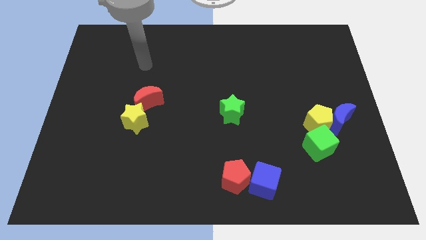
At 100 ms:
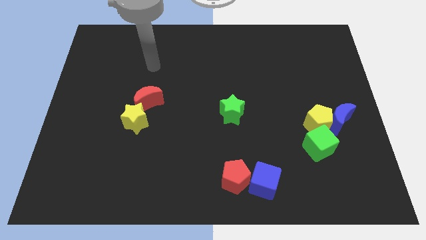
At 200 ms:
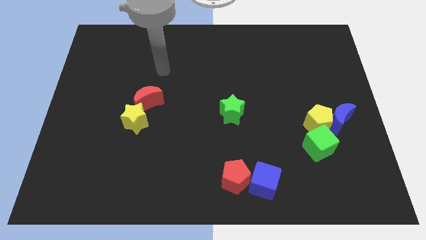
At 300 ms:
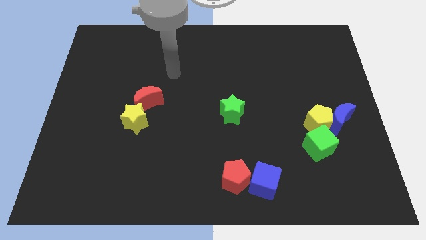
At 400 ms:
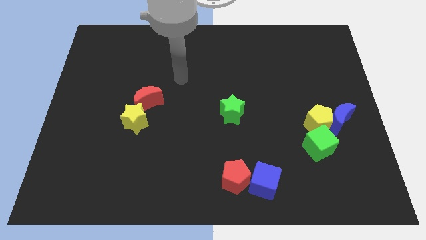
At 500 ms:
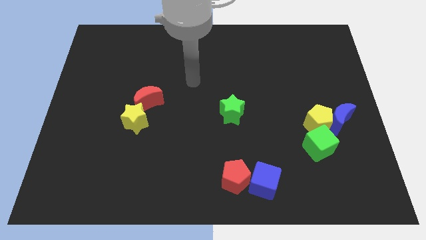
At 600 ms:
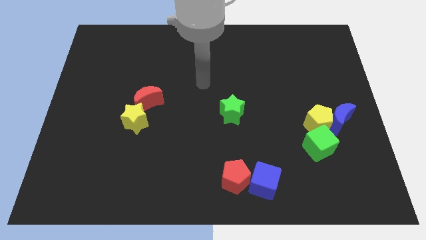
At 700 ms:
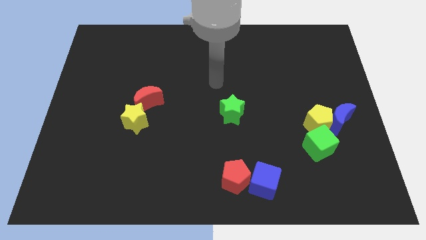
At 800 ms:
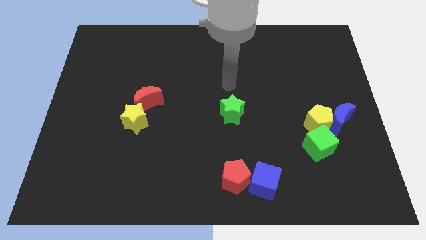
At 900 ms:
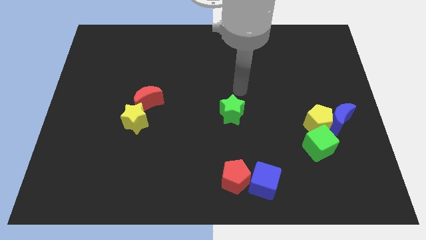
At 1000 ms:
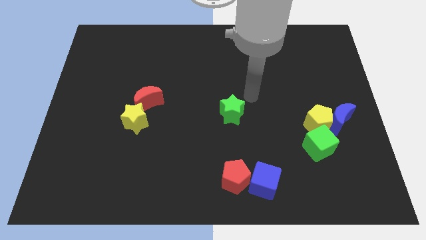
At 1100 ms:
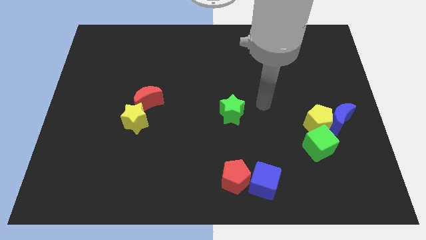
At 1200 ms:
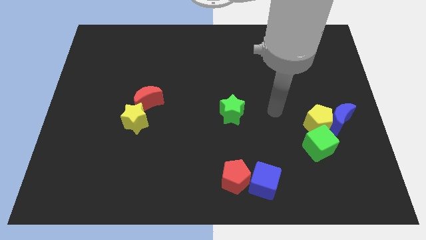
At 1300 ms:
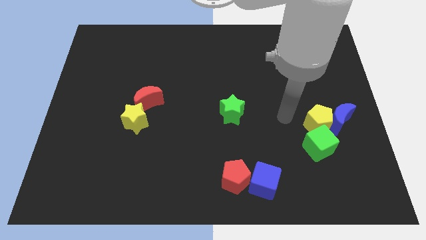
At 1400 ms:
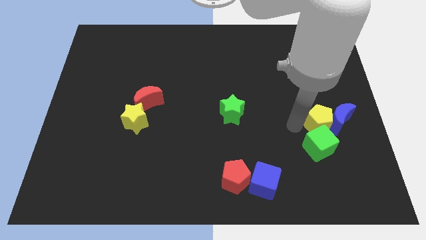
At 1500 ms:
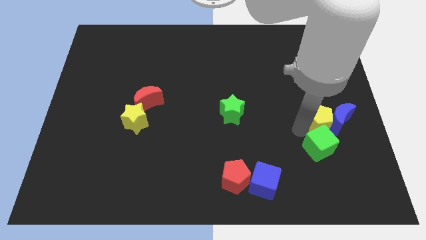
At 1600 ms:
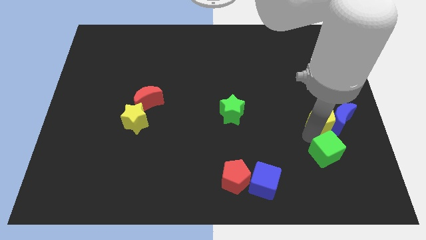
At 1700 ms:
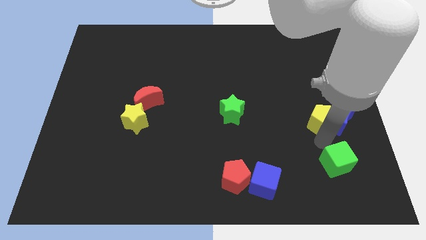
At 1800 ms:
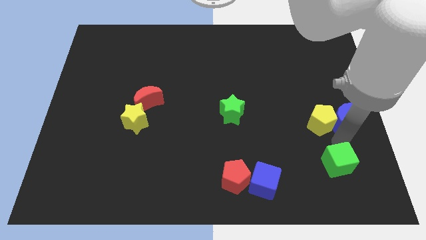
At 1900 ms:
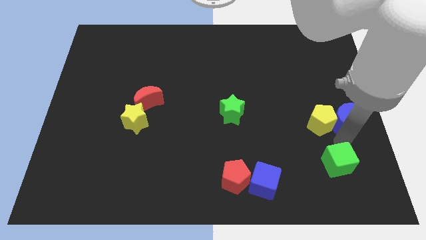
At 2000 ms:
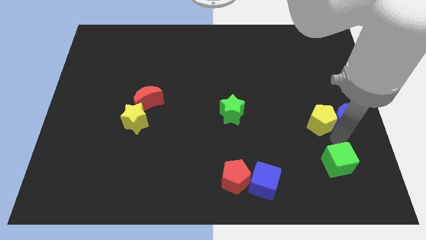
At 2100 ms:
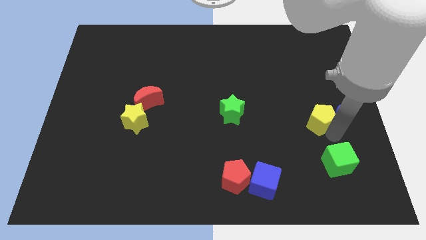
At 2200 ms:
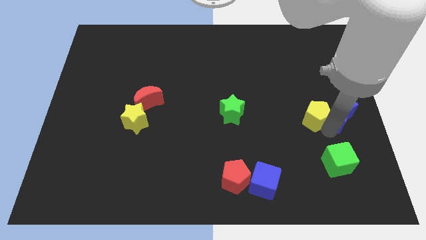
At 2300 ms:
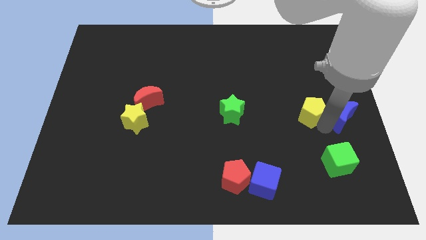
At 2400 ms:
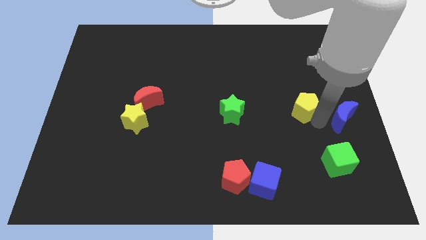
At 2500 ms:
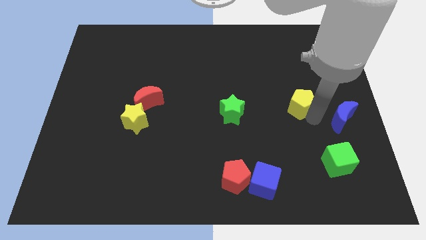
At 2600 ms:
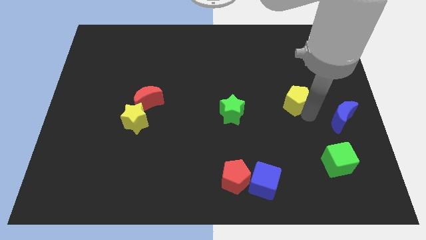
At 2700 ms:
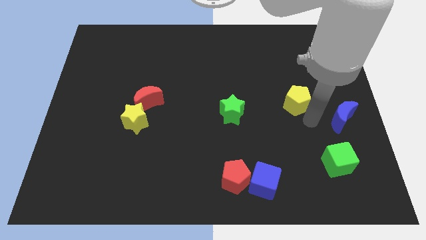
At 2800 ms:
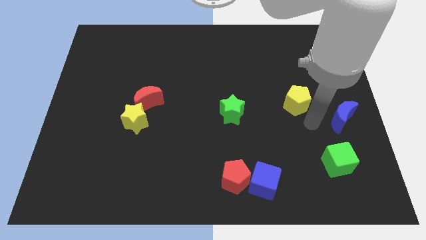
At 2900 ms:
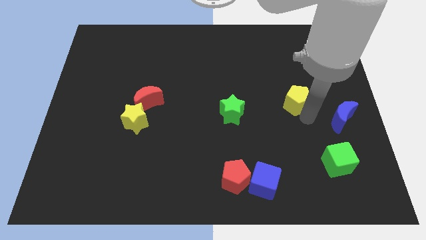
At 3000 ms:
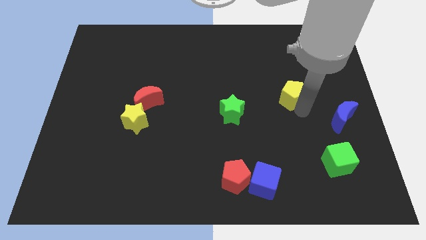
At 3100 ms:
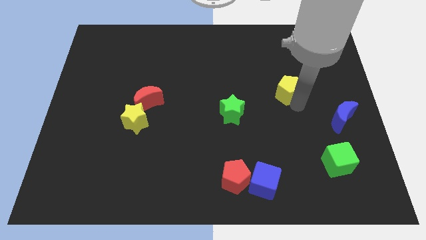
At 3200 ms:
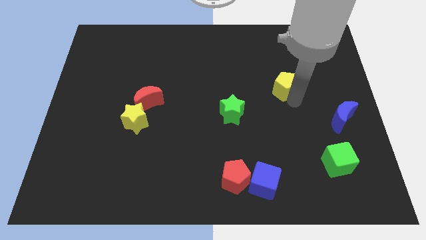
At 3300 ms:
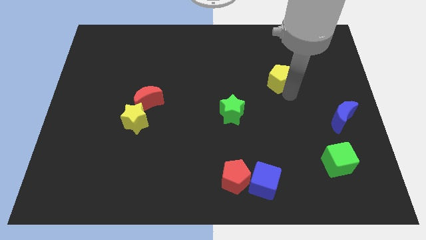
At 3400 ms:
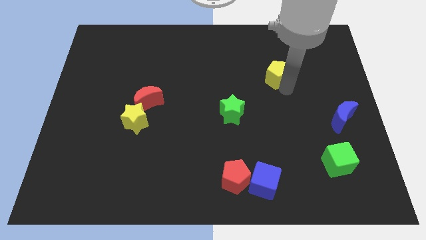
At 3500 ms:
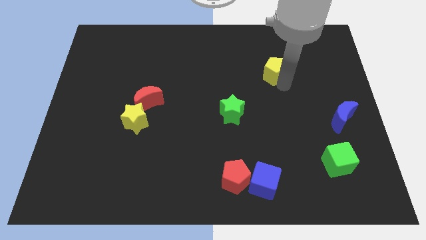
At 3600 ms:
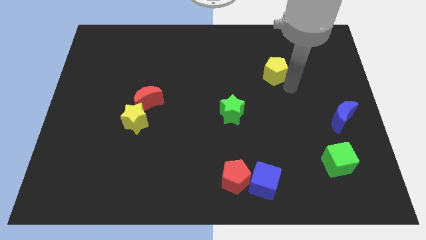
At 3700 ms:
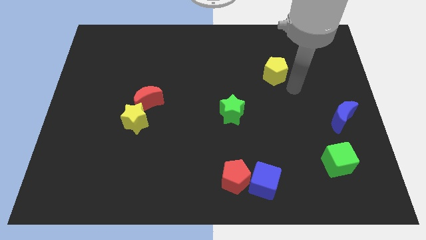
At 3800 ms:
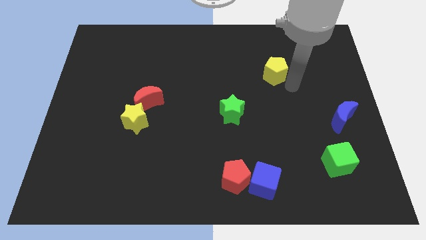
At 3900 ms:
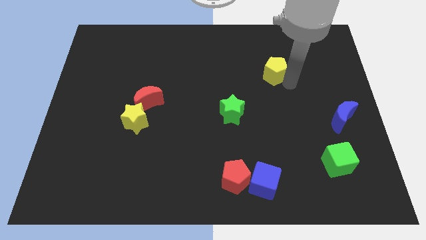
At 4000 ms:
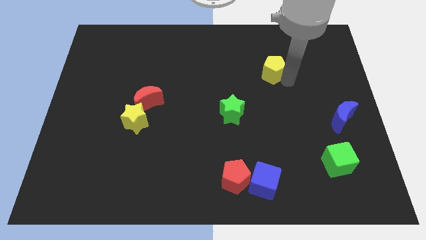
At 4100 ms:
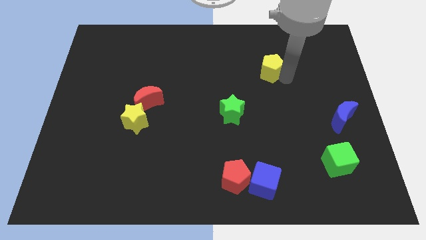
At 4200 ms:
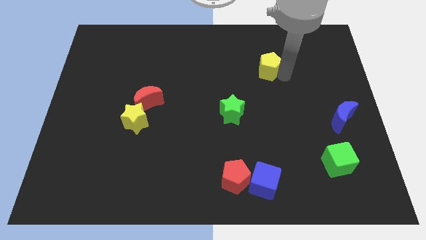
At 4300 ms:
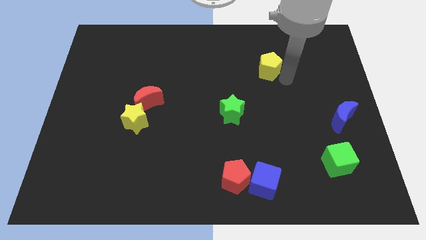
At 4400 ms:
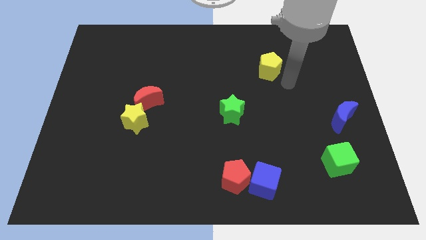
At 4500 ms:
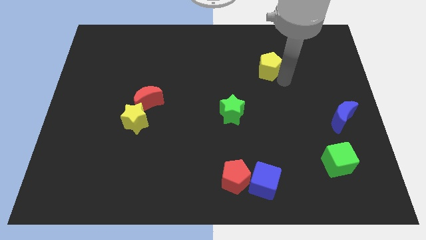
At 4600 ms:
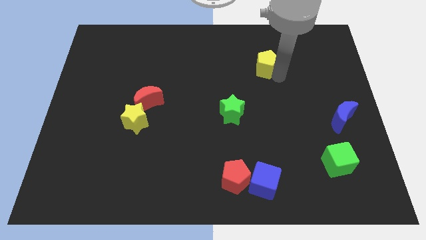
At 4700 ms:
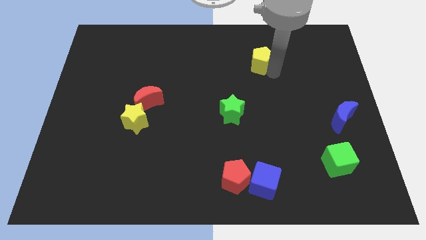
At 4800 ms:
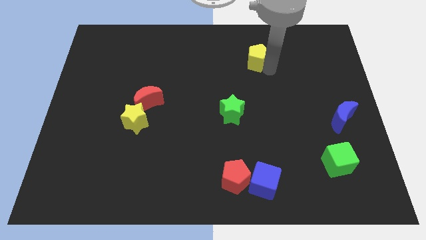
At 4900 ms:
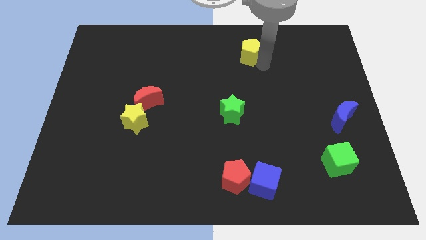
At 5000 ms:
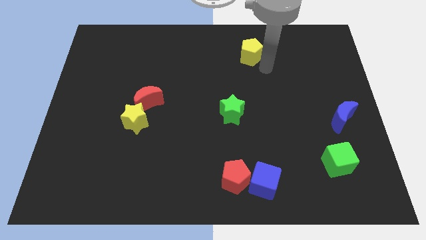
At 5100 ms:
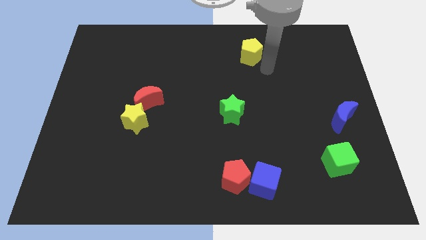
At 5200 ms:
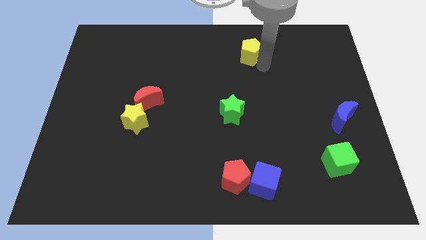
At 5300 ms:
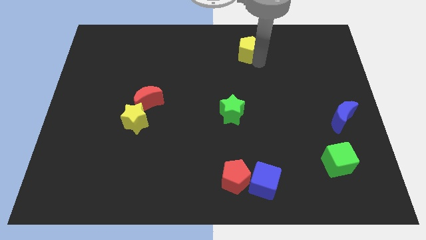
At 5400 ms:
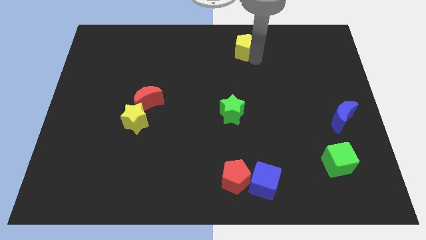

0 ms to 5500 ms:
slide the yellow pentagon to the top

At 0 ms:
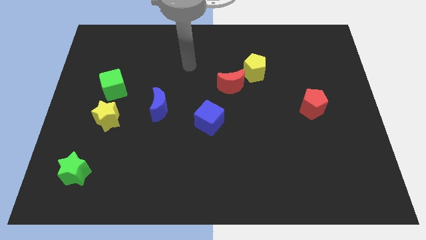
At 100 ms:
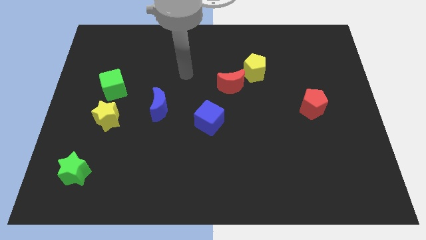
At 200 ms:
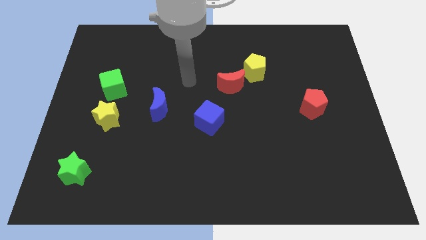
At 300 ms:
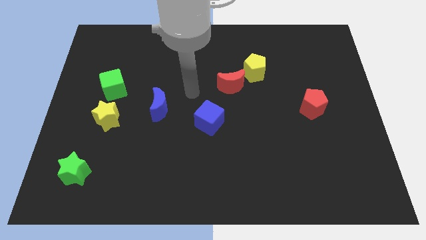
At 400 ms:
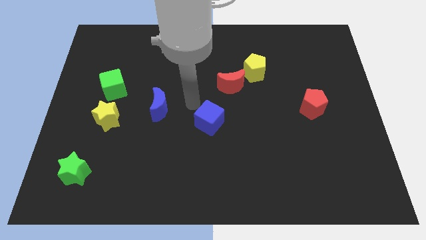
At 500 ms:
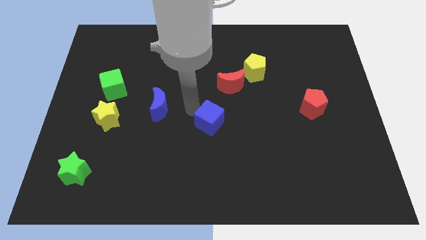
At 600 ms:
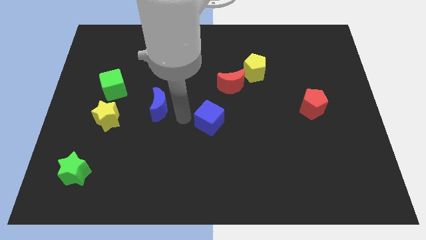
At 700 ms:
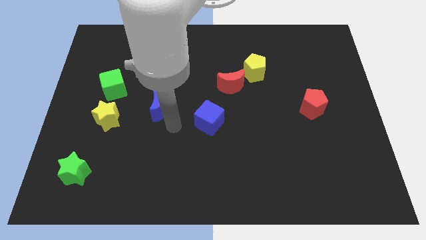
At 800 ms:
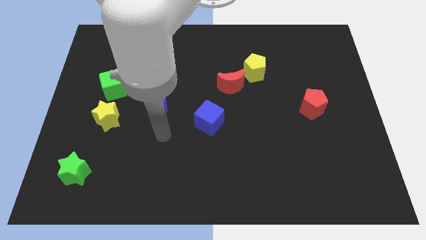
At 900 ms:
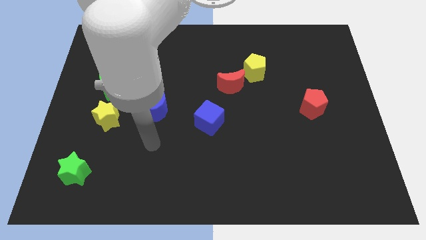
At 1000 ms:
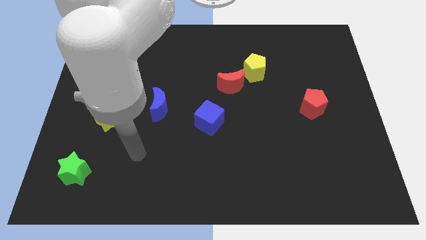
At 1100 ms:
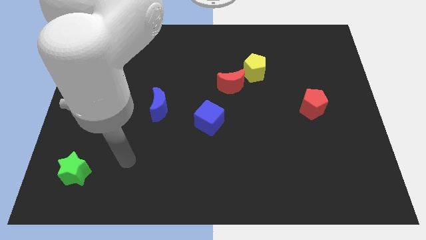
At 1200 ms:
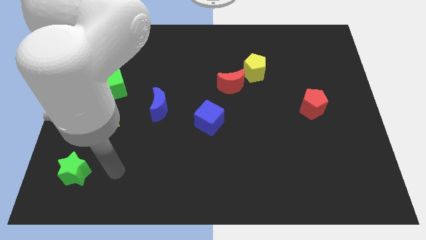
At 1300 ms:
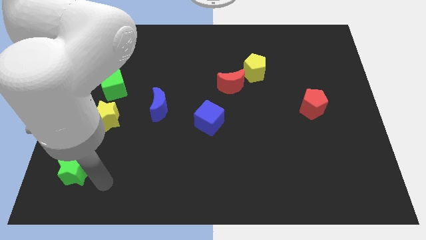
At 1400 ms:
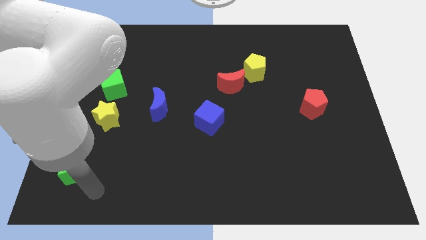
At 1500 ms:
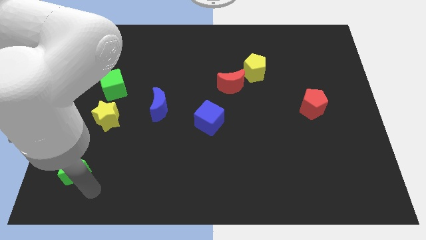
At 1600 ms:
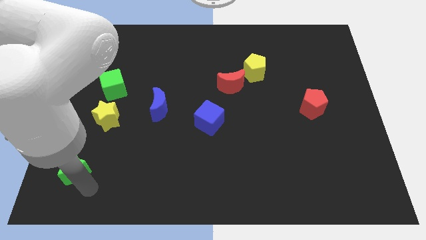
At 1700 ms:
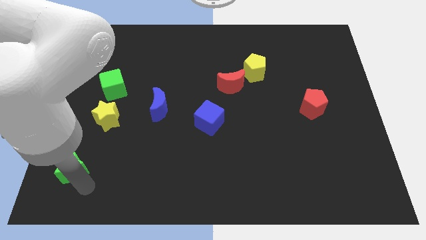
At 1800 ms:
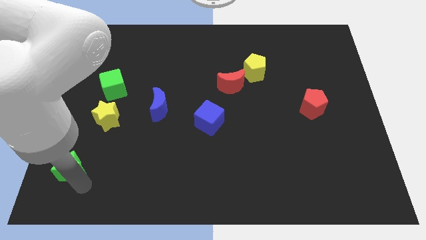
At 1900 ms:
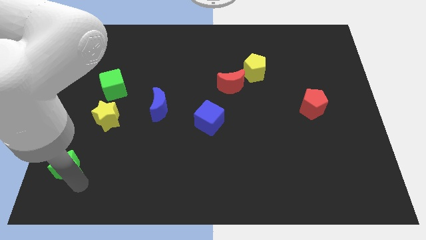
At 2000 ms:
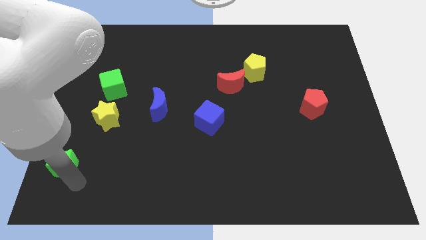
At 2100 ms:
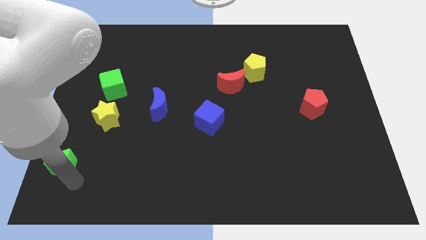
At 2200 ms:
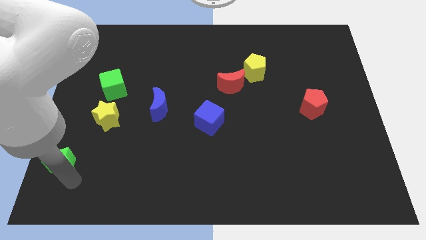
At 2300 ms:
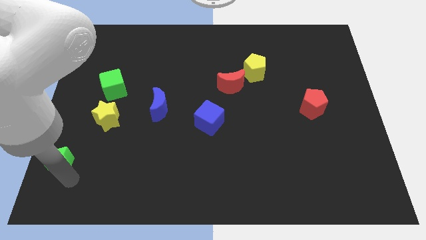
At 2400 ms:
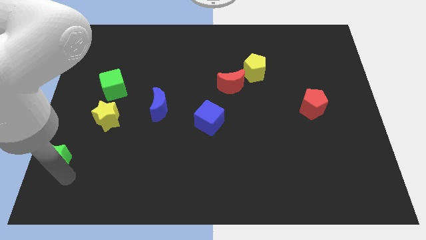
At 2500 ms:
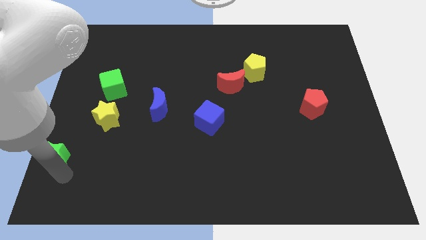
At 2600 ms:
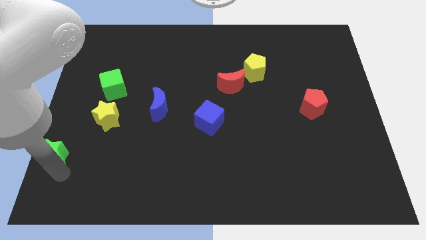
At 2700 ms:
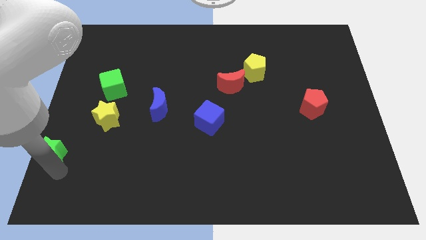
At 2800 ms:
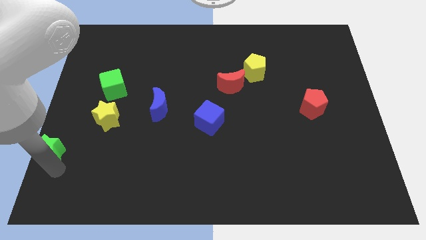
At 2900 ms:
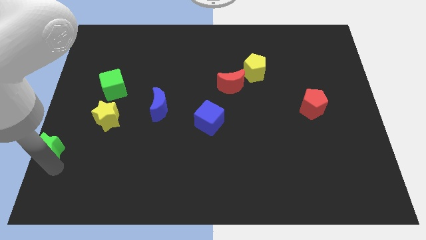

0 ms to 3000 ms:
push the green star to the left side
